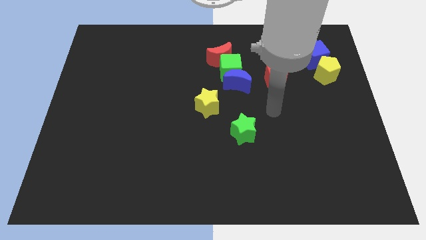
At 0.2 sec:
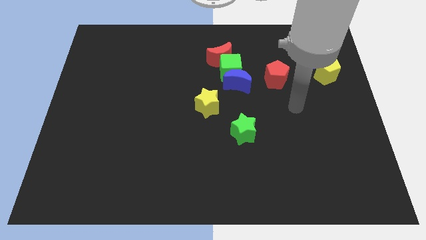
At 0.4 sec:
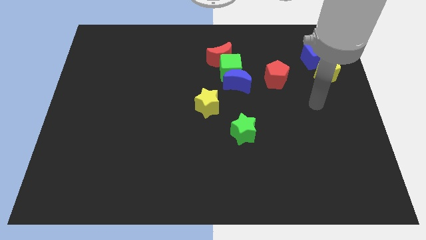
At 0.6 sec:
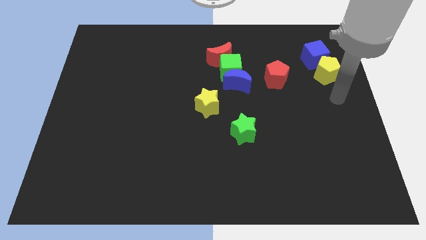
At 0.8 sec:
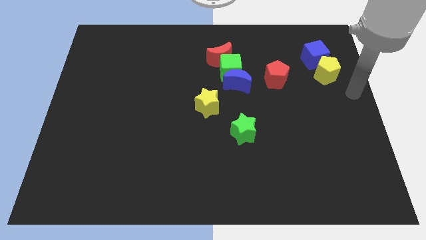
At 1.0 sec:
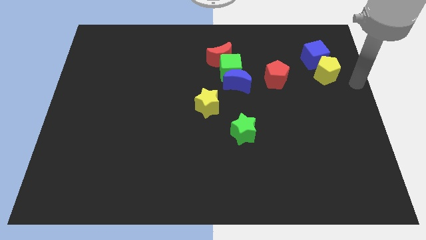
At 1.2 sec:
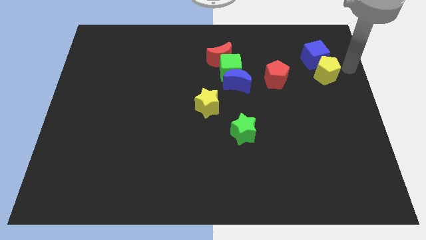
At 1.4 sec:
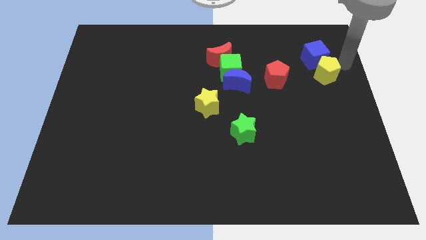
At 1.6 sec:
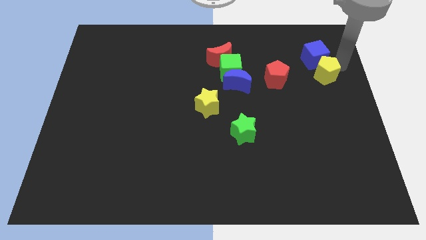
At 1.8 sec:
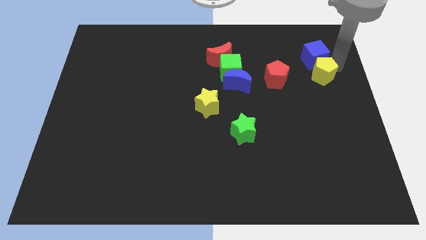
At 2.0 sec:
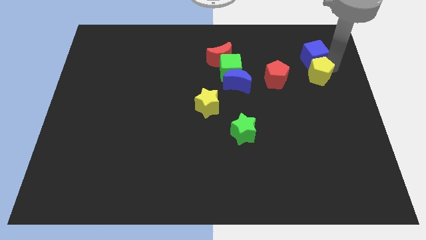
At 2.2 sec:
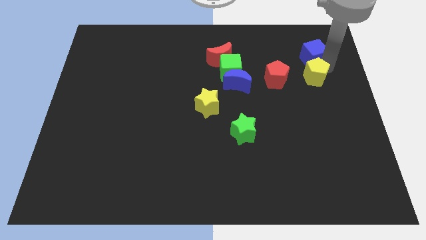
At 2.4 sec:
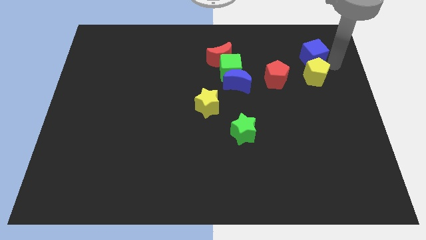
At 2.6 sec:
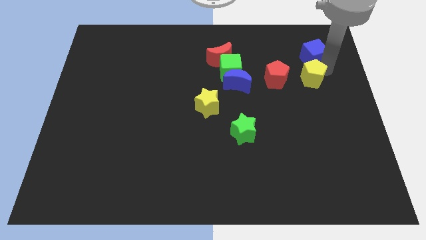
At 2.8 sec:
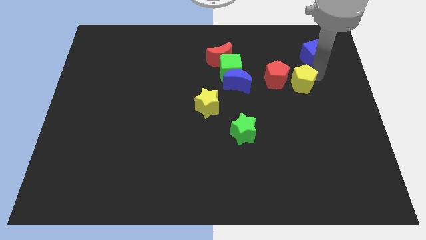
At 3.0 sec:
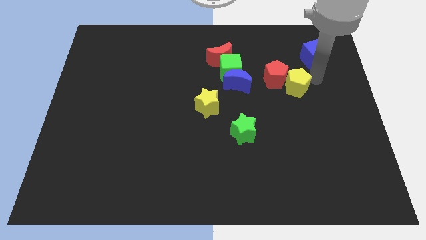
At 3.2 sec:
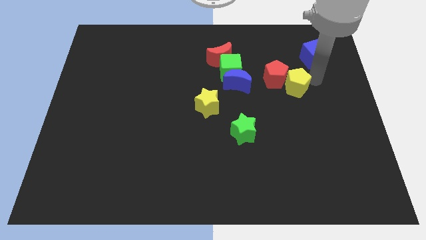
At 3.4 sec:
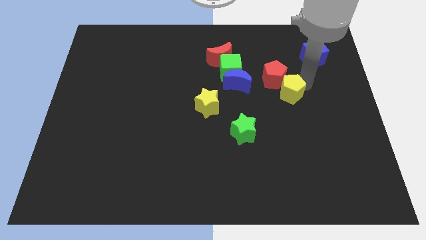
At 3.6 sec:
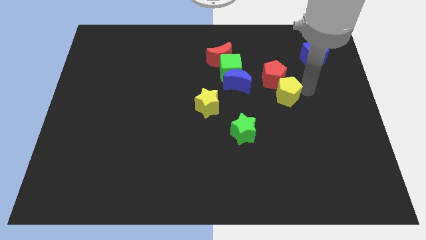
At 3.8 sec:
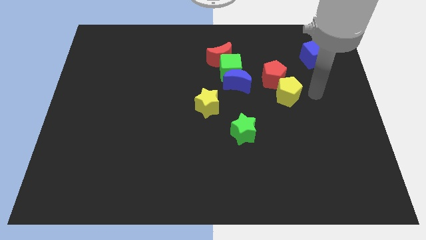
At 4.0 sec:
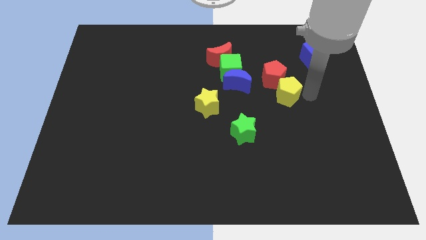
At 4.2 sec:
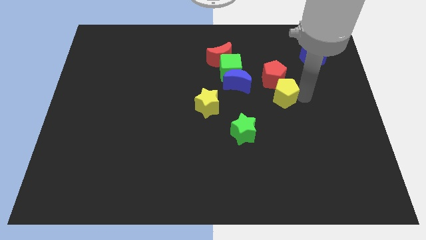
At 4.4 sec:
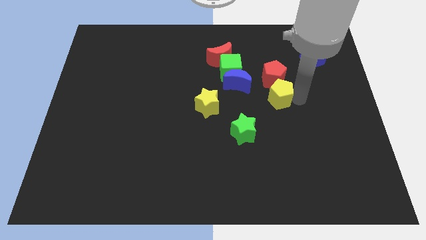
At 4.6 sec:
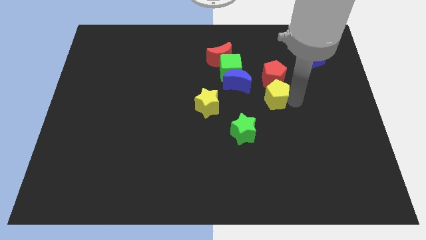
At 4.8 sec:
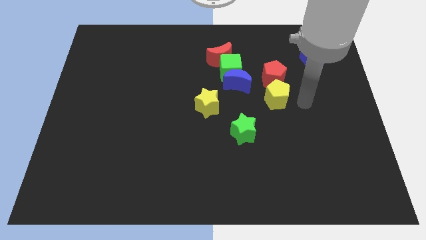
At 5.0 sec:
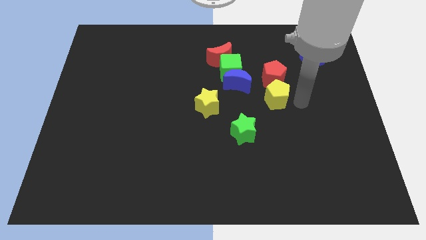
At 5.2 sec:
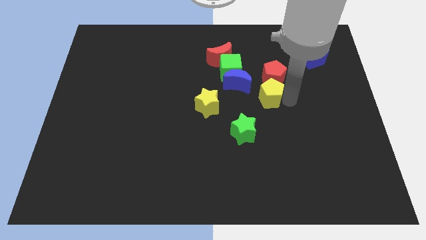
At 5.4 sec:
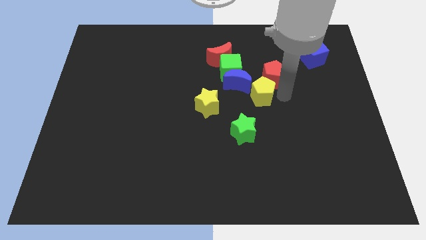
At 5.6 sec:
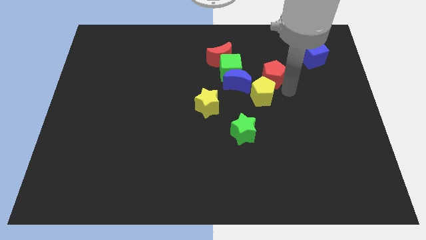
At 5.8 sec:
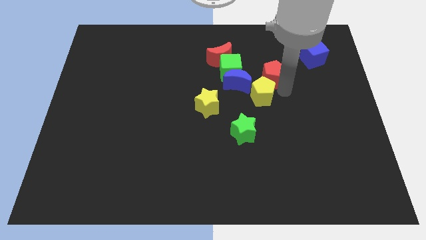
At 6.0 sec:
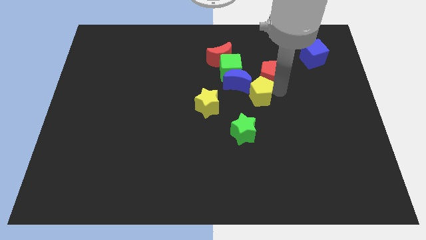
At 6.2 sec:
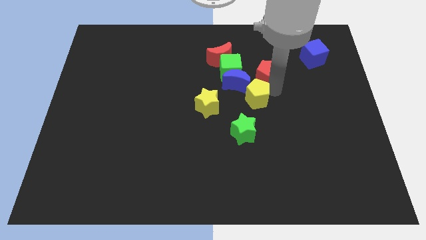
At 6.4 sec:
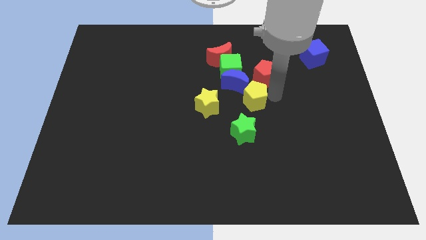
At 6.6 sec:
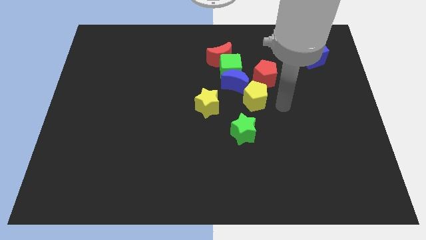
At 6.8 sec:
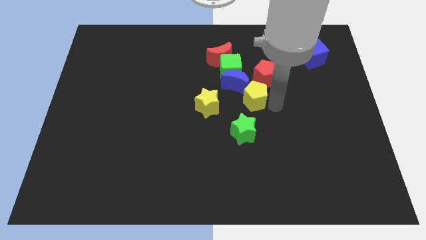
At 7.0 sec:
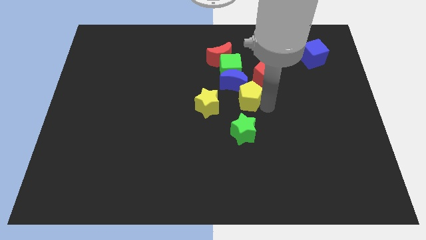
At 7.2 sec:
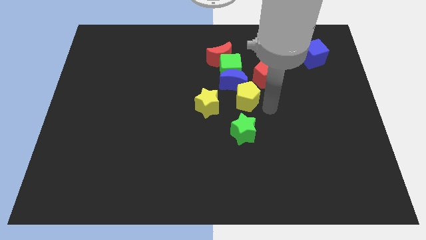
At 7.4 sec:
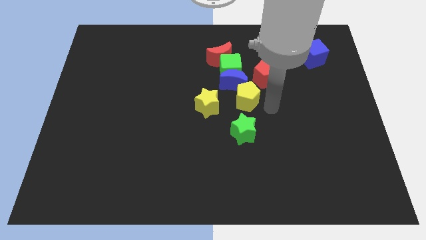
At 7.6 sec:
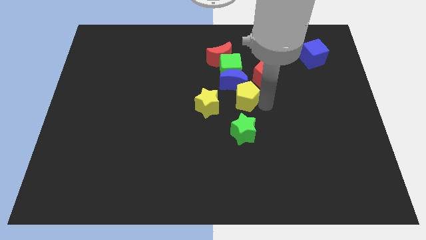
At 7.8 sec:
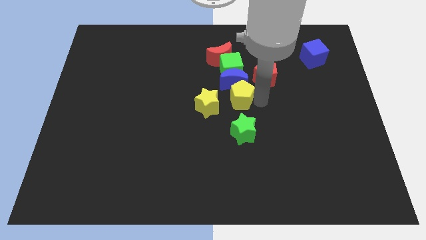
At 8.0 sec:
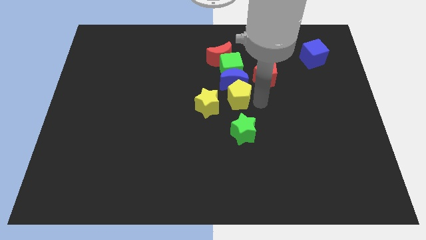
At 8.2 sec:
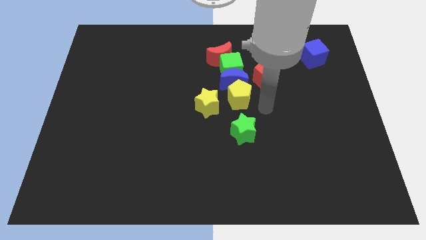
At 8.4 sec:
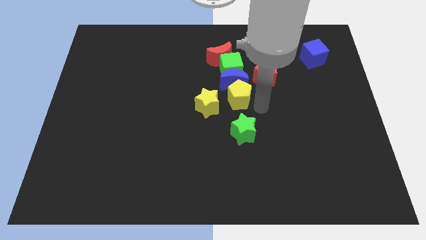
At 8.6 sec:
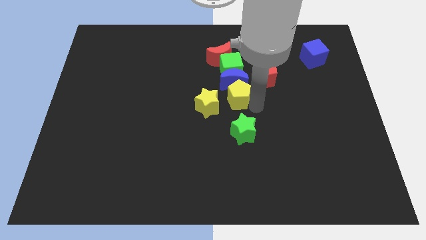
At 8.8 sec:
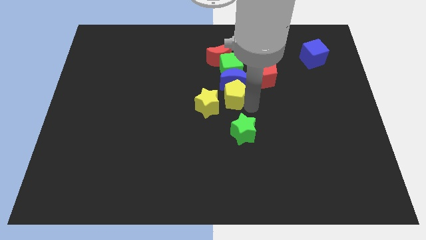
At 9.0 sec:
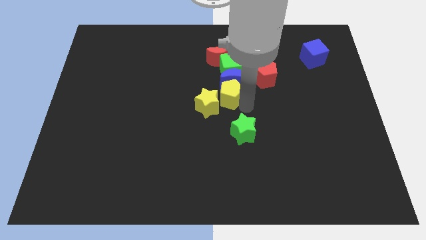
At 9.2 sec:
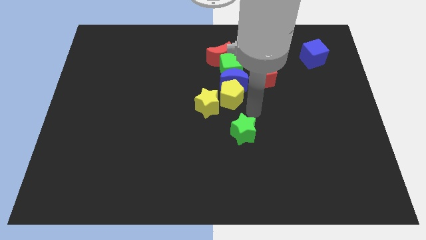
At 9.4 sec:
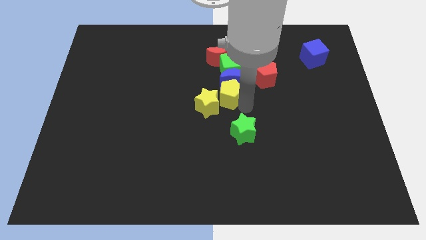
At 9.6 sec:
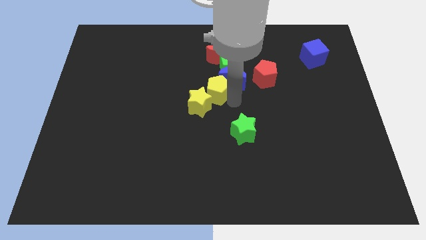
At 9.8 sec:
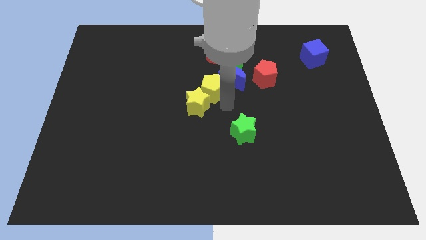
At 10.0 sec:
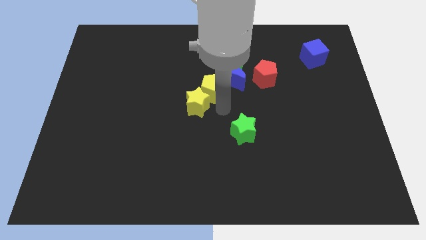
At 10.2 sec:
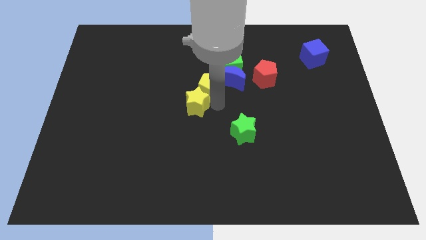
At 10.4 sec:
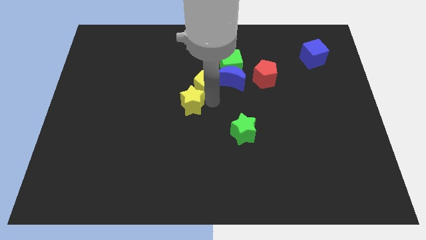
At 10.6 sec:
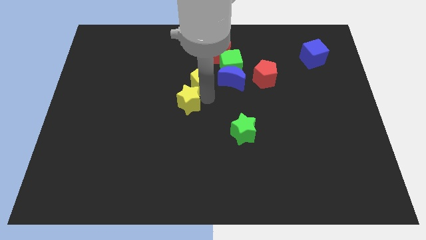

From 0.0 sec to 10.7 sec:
put the yellow pentagon diagonally down and to the left of the red moon

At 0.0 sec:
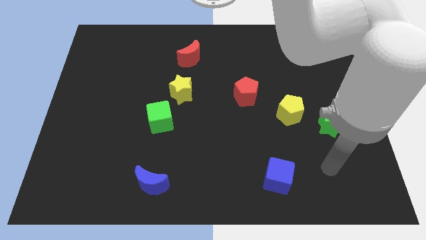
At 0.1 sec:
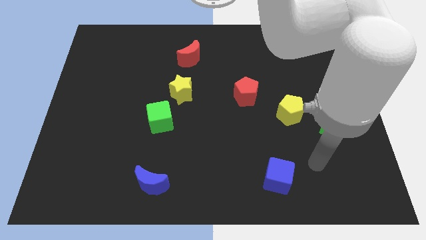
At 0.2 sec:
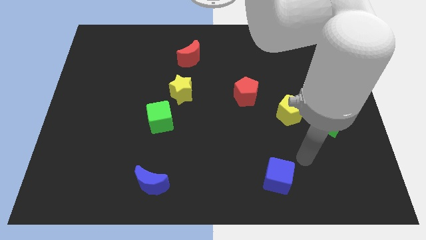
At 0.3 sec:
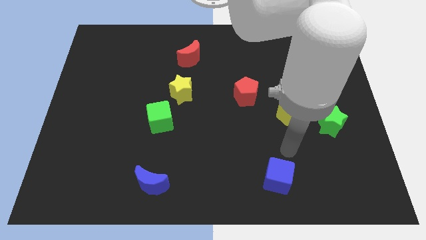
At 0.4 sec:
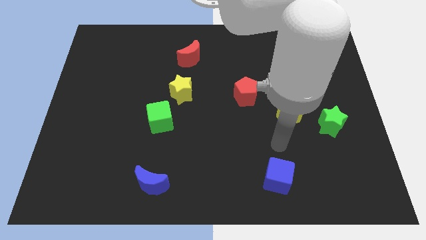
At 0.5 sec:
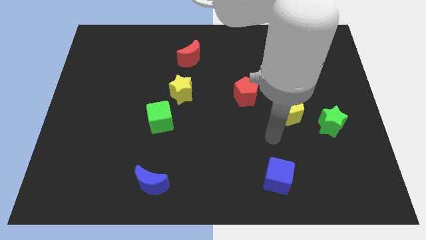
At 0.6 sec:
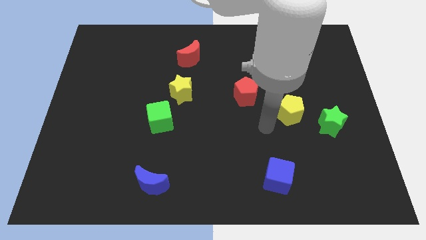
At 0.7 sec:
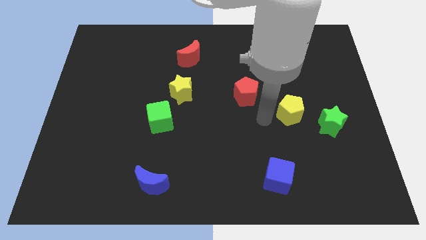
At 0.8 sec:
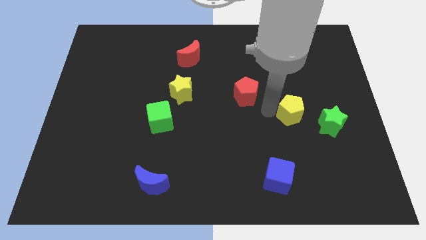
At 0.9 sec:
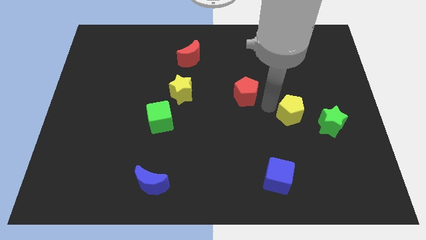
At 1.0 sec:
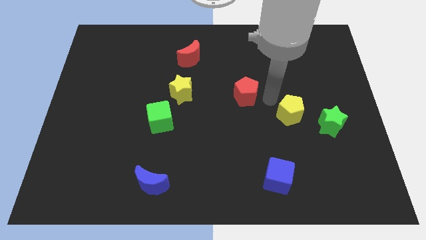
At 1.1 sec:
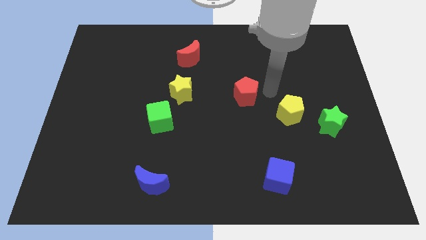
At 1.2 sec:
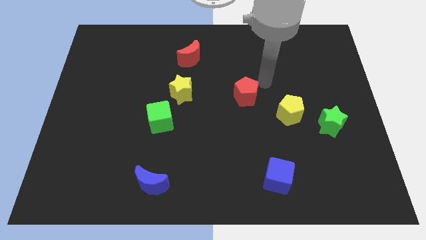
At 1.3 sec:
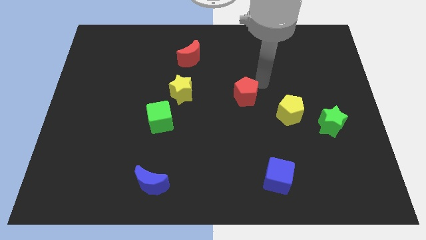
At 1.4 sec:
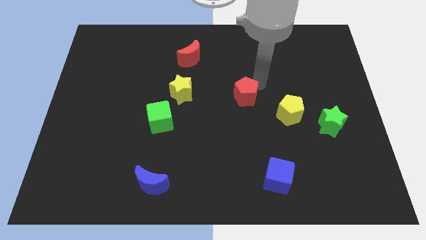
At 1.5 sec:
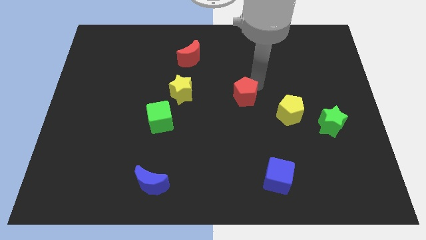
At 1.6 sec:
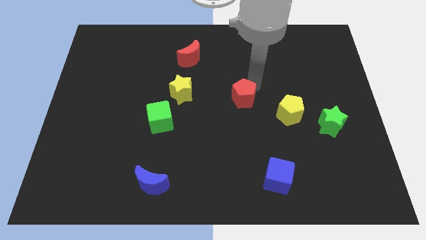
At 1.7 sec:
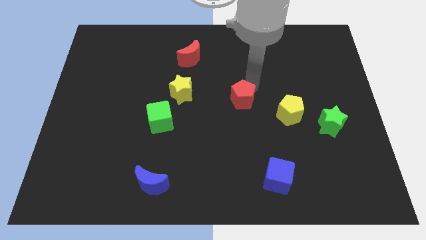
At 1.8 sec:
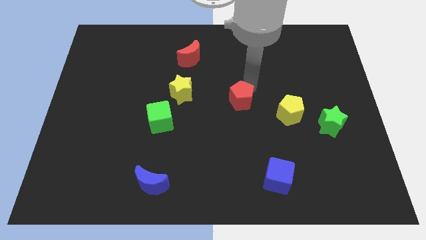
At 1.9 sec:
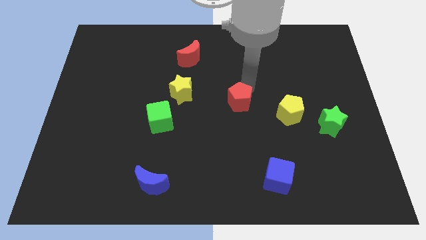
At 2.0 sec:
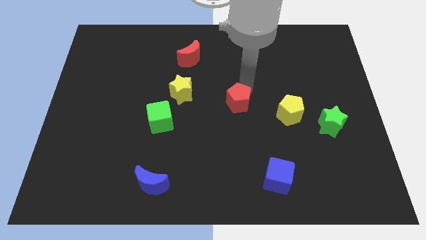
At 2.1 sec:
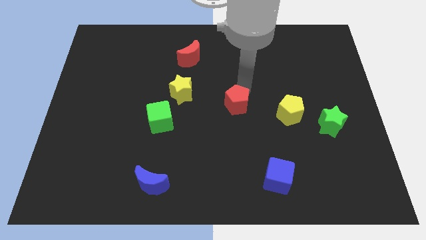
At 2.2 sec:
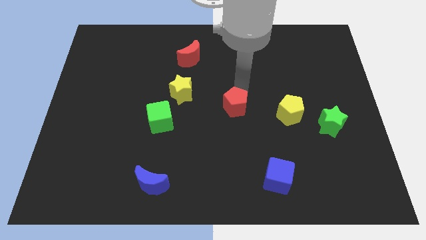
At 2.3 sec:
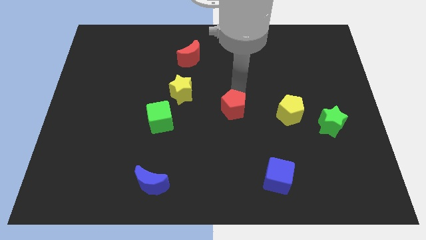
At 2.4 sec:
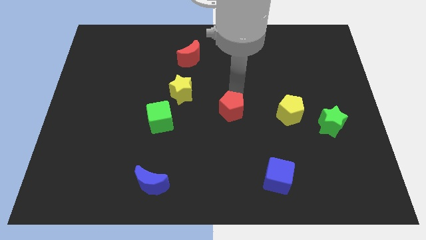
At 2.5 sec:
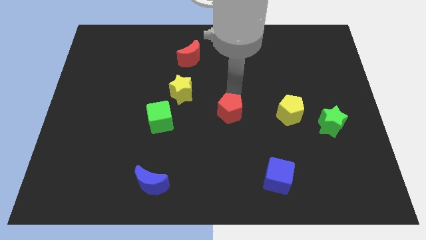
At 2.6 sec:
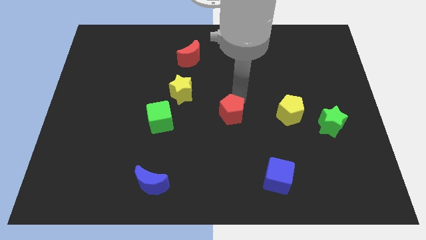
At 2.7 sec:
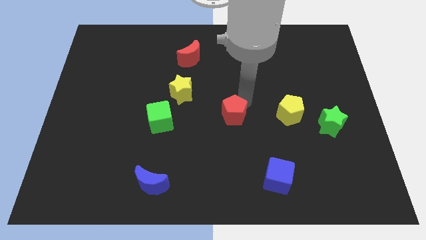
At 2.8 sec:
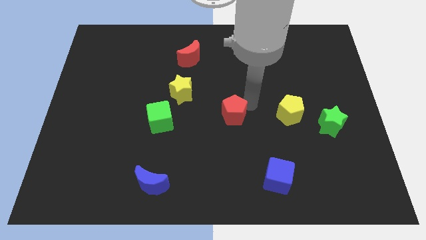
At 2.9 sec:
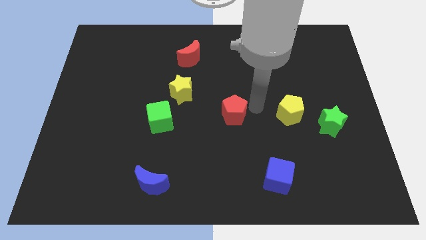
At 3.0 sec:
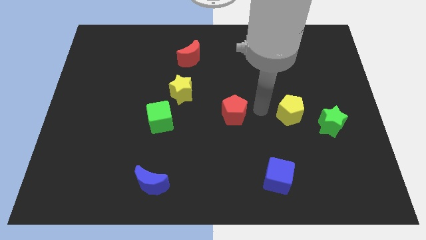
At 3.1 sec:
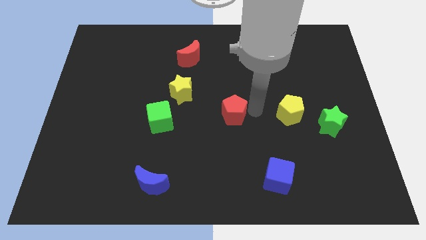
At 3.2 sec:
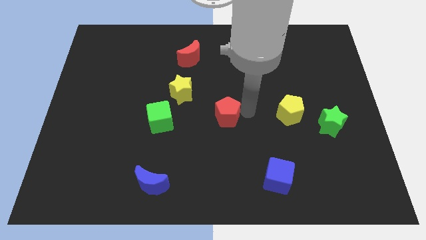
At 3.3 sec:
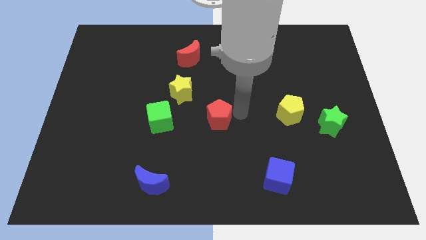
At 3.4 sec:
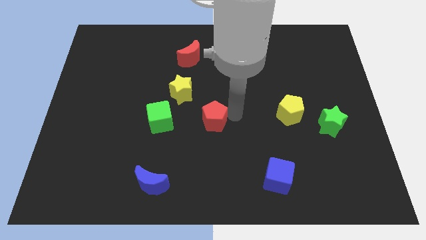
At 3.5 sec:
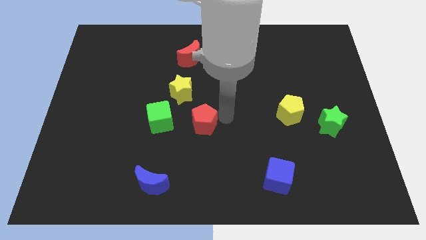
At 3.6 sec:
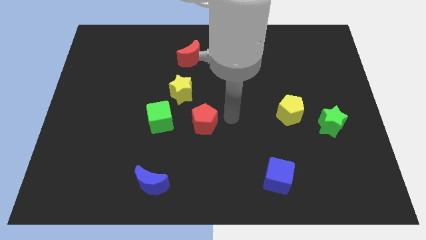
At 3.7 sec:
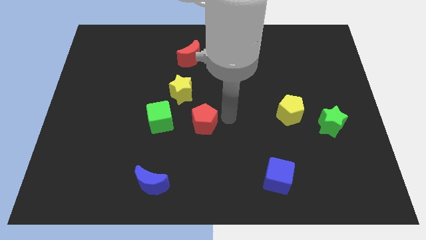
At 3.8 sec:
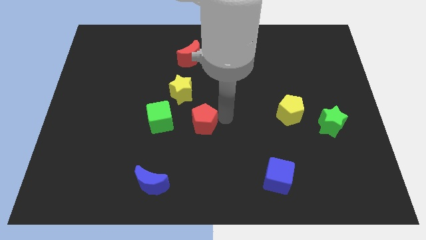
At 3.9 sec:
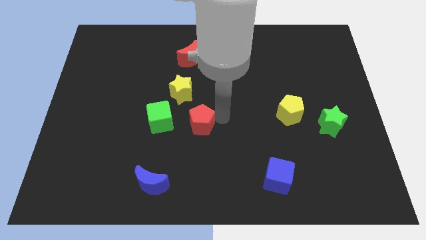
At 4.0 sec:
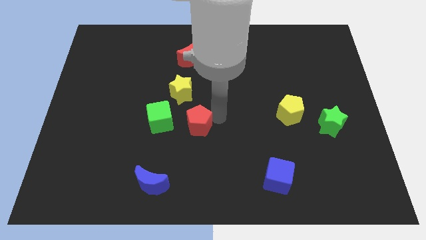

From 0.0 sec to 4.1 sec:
move the red pentagon below the yellow star
